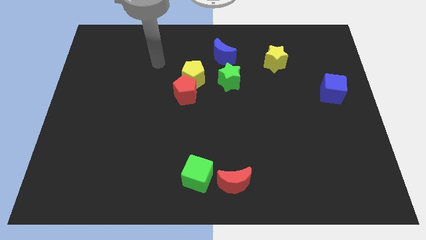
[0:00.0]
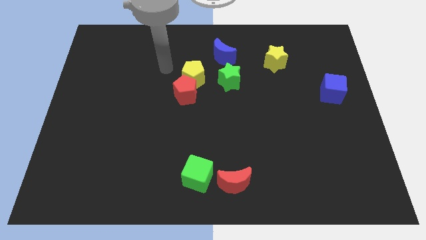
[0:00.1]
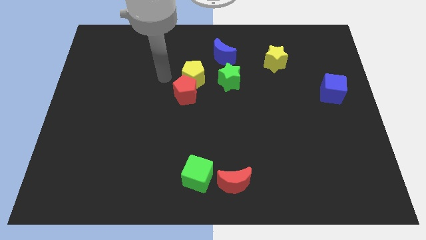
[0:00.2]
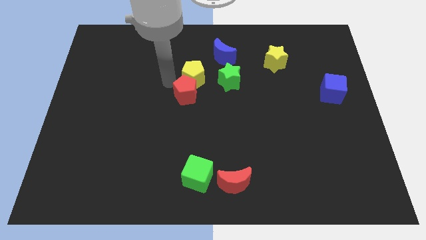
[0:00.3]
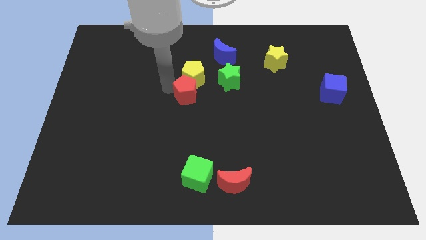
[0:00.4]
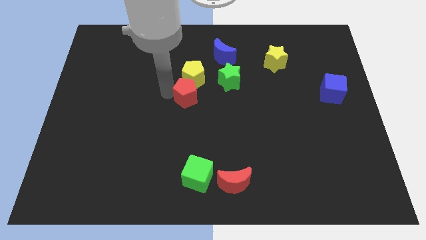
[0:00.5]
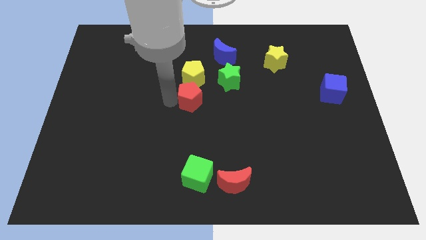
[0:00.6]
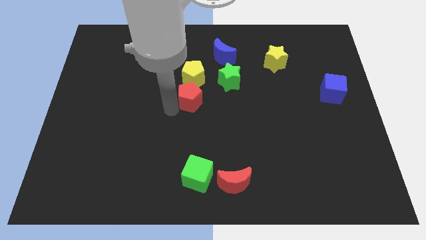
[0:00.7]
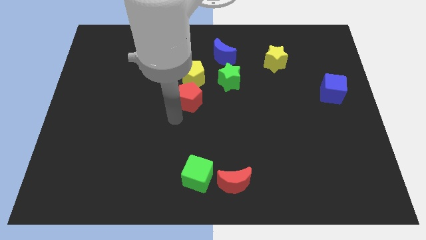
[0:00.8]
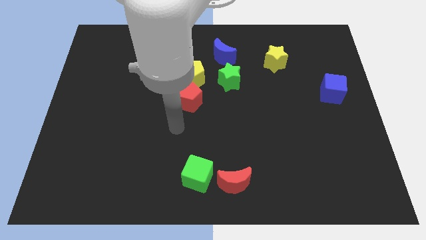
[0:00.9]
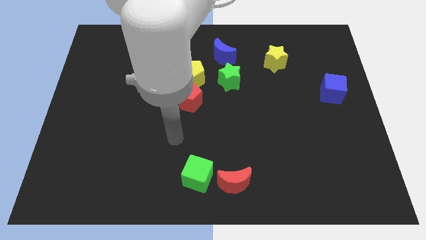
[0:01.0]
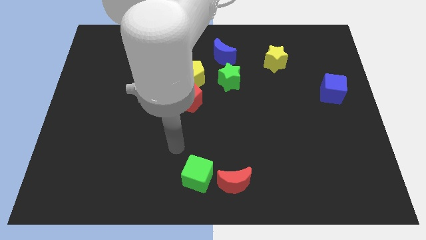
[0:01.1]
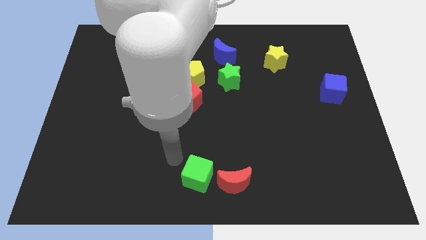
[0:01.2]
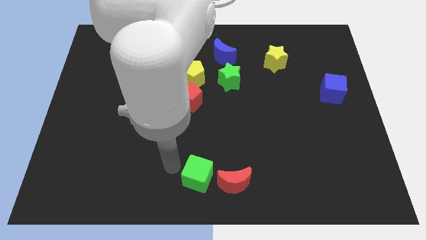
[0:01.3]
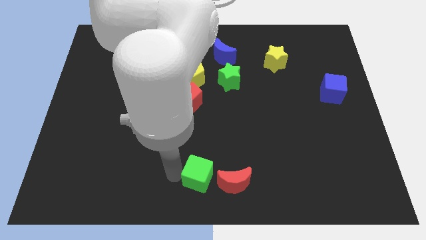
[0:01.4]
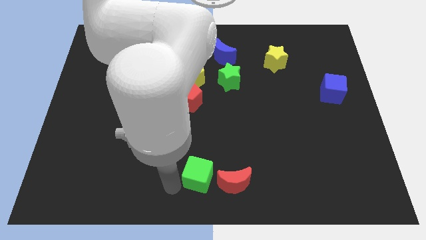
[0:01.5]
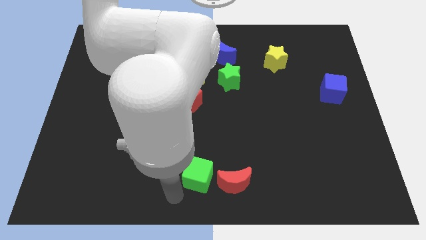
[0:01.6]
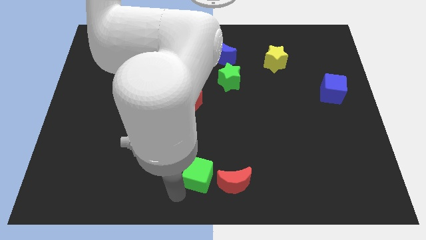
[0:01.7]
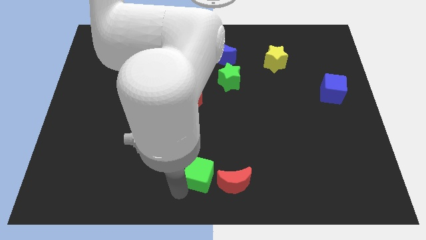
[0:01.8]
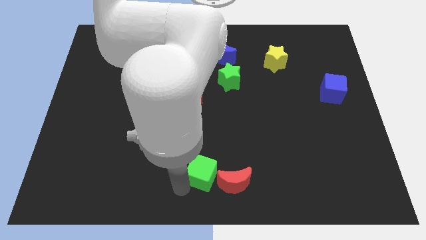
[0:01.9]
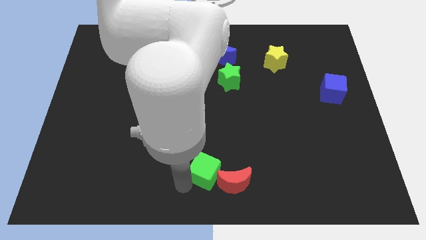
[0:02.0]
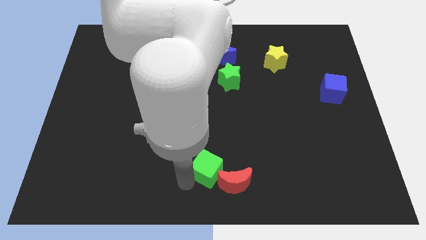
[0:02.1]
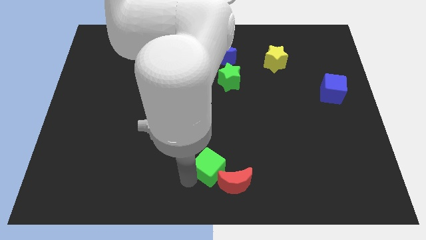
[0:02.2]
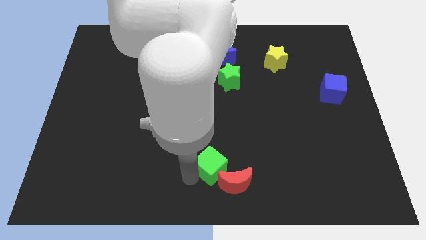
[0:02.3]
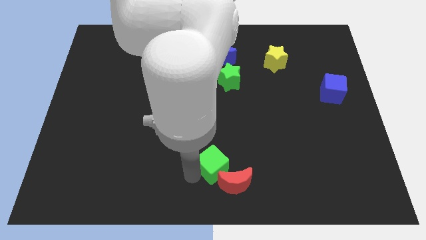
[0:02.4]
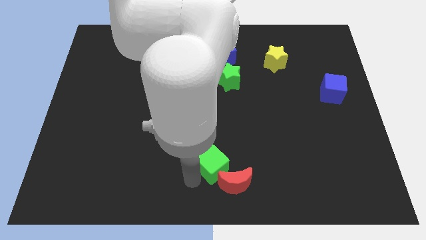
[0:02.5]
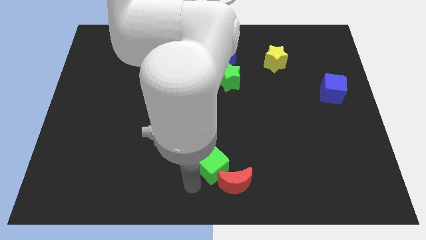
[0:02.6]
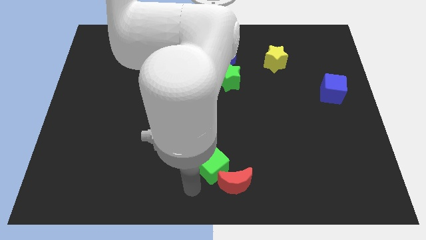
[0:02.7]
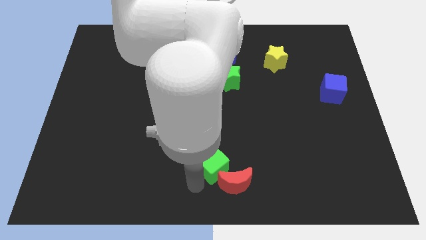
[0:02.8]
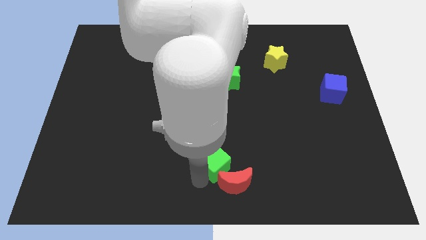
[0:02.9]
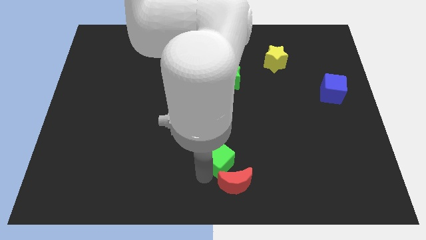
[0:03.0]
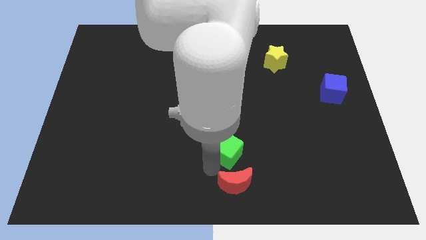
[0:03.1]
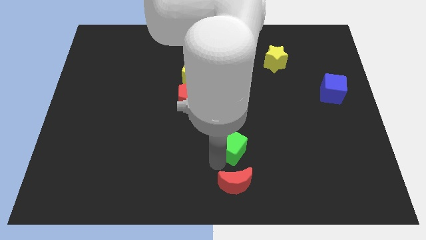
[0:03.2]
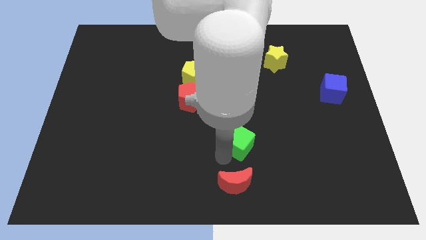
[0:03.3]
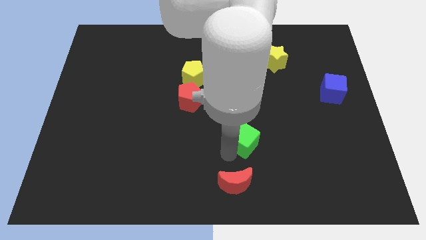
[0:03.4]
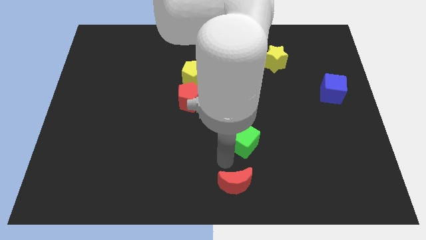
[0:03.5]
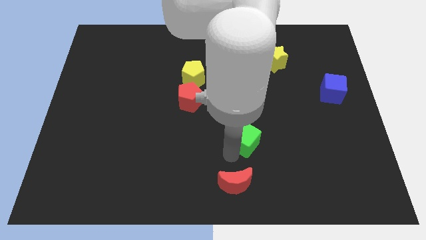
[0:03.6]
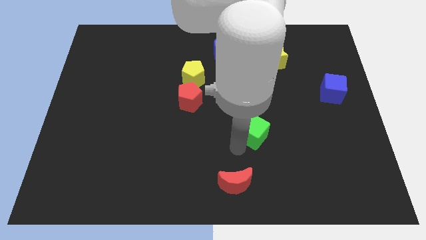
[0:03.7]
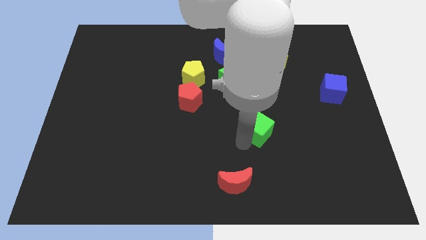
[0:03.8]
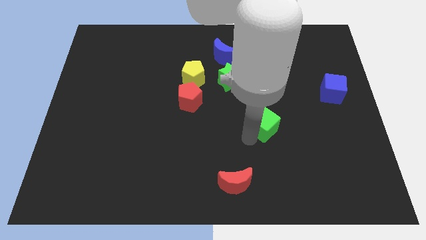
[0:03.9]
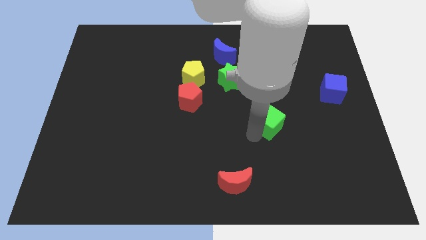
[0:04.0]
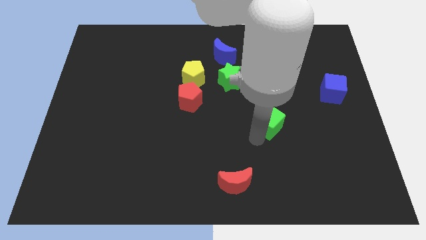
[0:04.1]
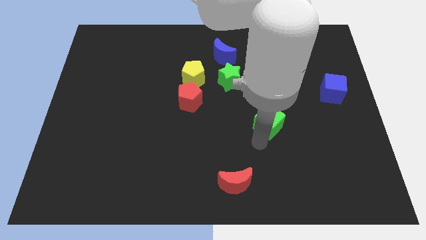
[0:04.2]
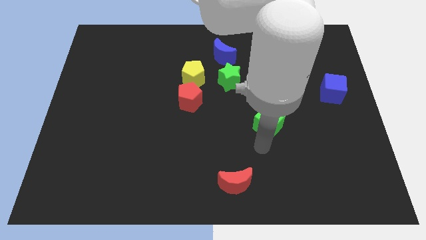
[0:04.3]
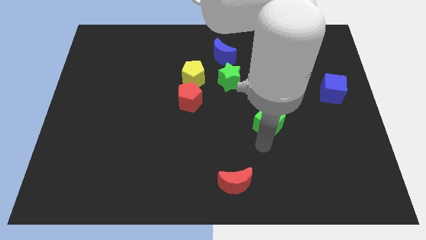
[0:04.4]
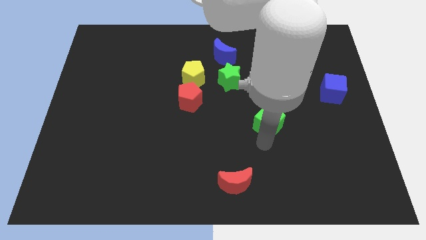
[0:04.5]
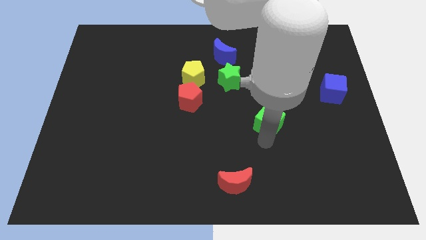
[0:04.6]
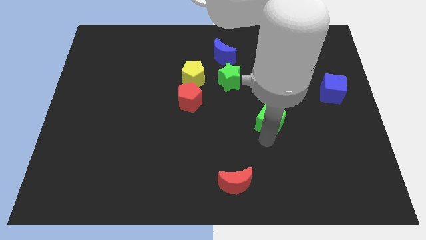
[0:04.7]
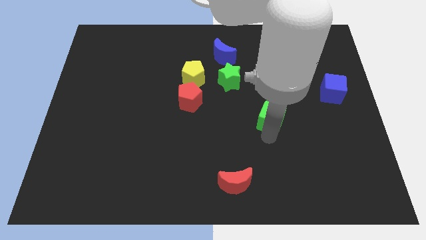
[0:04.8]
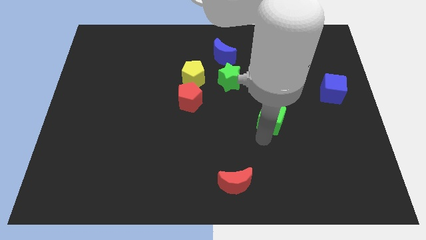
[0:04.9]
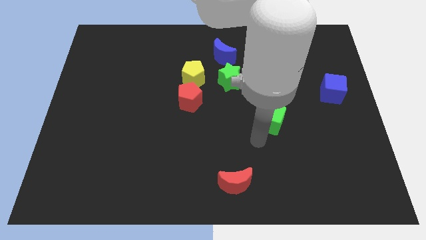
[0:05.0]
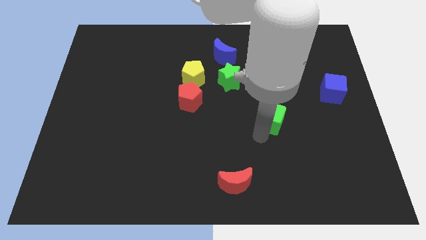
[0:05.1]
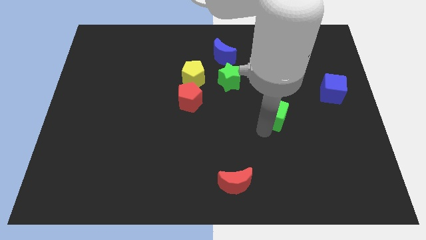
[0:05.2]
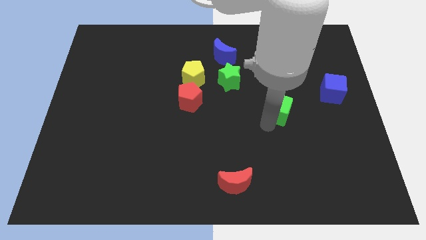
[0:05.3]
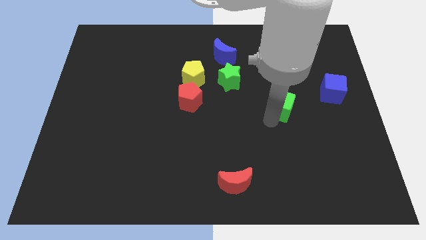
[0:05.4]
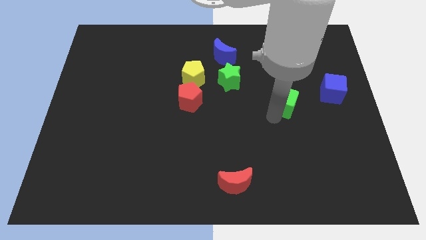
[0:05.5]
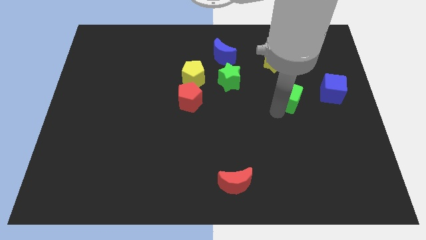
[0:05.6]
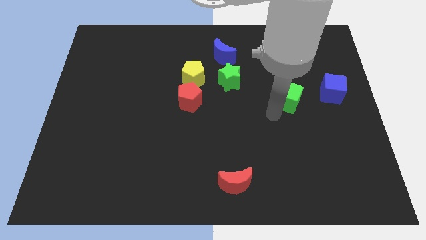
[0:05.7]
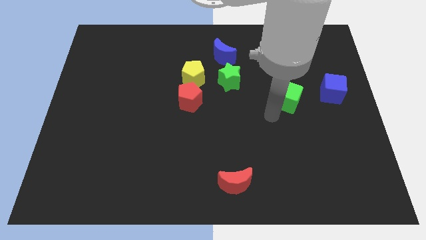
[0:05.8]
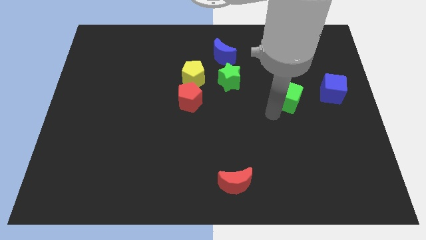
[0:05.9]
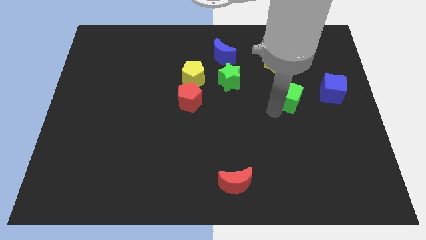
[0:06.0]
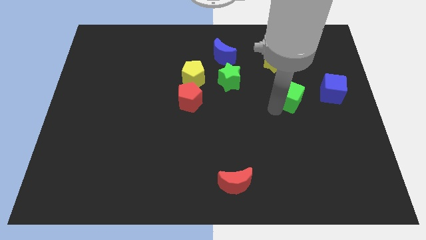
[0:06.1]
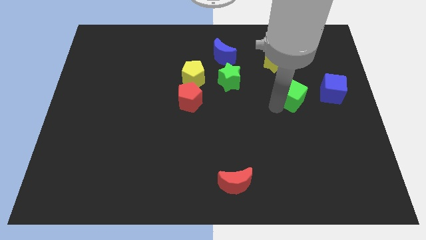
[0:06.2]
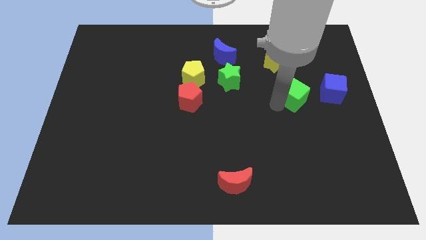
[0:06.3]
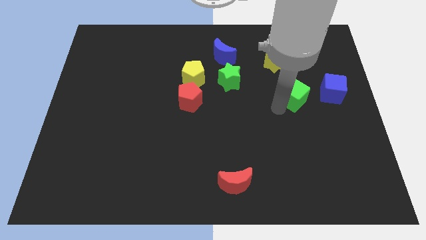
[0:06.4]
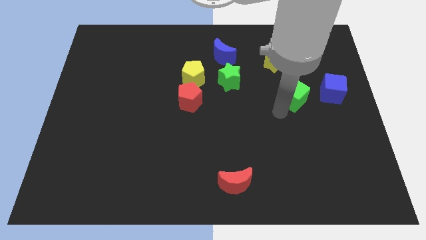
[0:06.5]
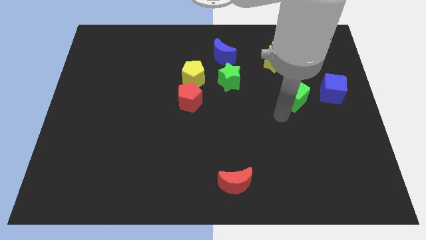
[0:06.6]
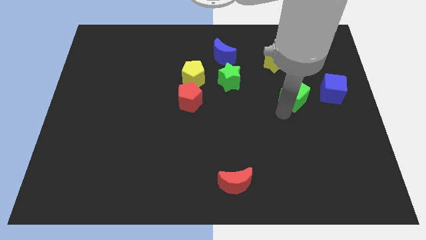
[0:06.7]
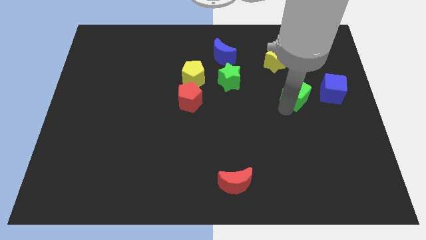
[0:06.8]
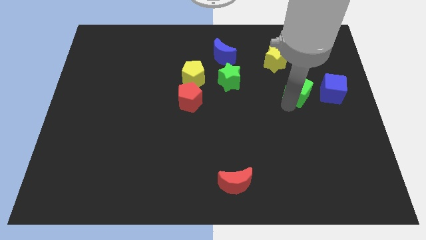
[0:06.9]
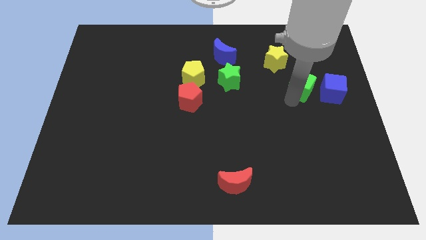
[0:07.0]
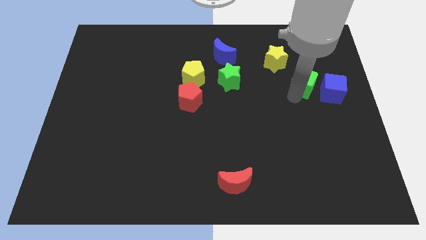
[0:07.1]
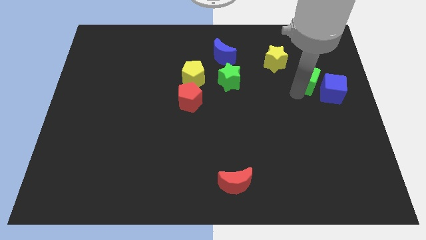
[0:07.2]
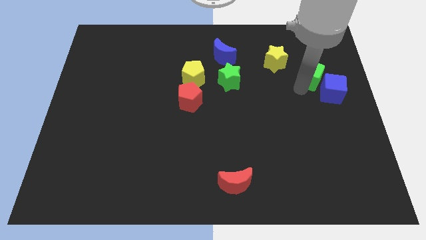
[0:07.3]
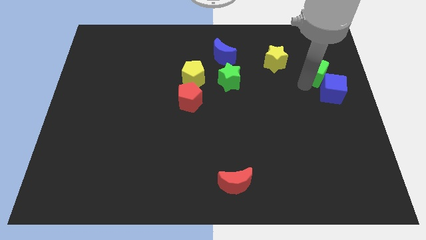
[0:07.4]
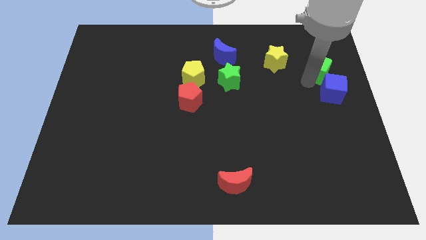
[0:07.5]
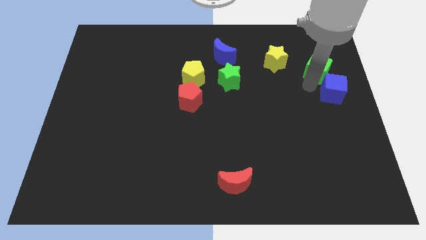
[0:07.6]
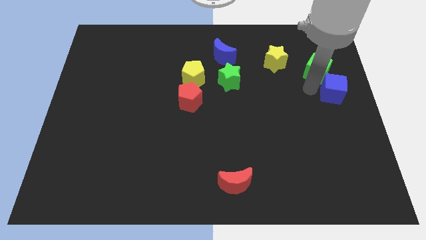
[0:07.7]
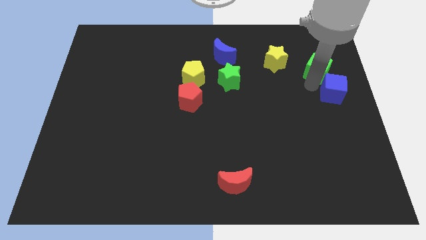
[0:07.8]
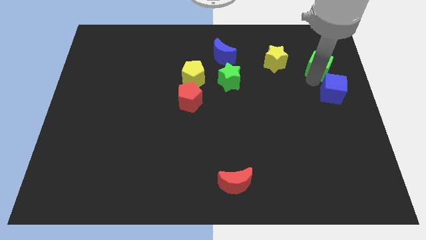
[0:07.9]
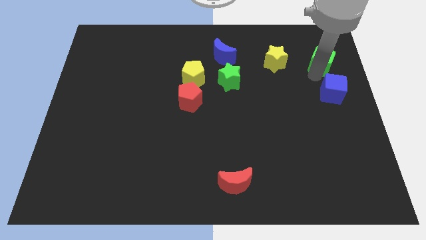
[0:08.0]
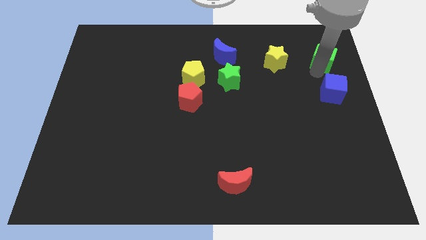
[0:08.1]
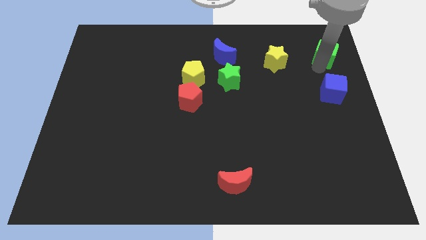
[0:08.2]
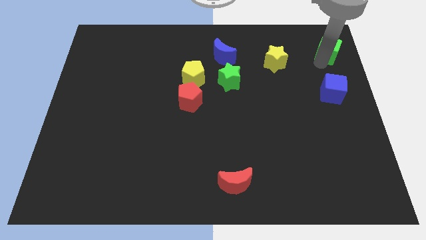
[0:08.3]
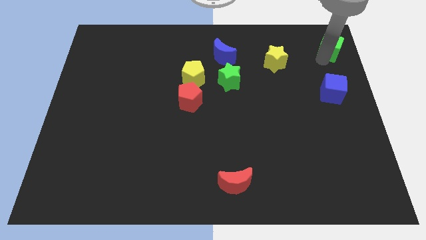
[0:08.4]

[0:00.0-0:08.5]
push the green cube to the top right of the board
